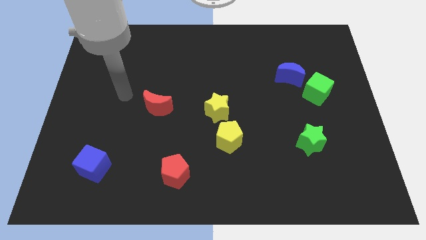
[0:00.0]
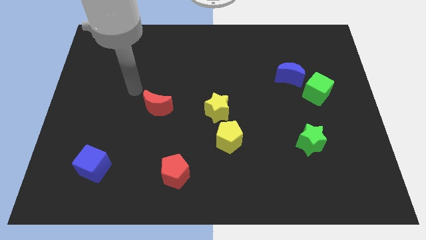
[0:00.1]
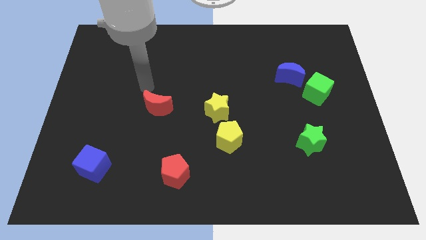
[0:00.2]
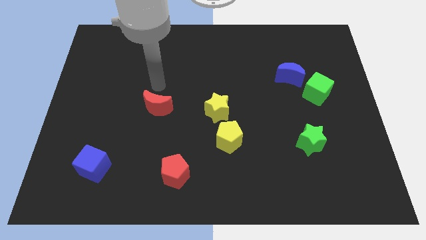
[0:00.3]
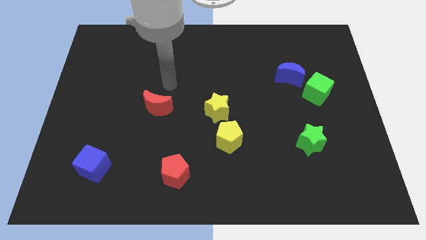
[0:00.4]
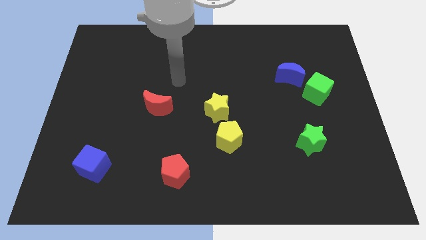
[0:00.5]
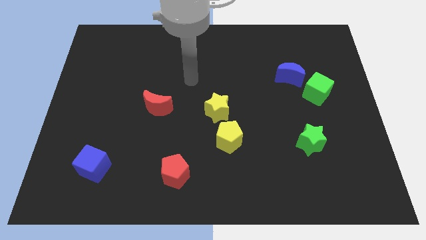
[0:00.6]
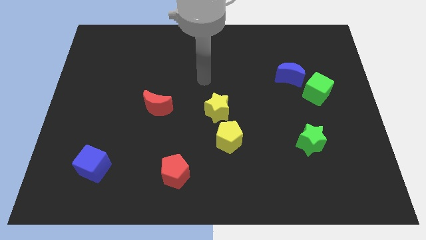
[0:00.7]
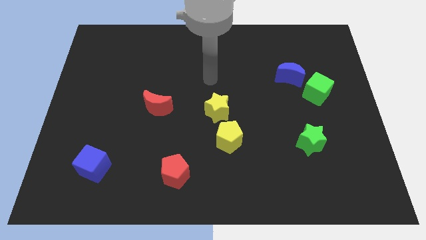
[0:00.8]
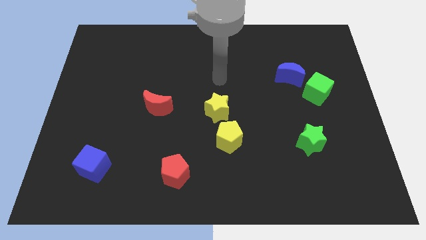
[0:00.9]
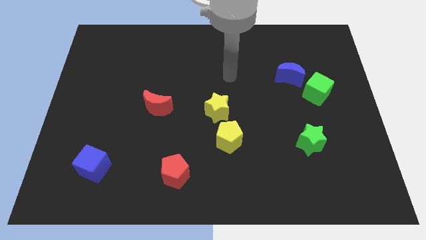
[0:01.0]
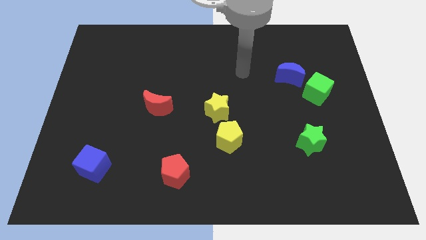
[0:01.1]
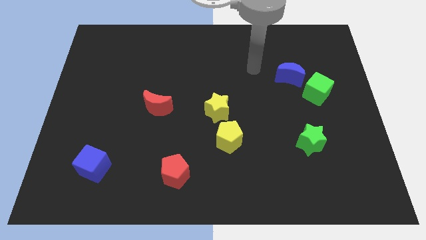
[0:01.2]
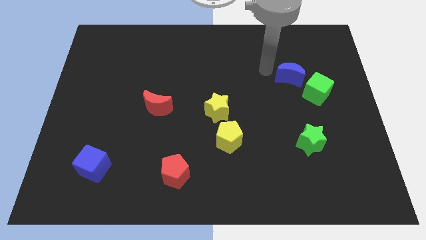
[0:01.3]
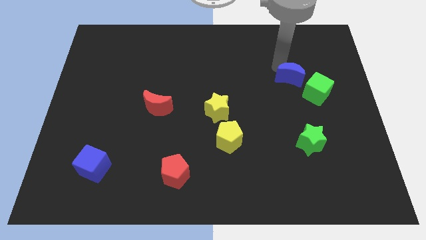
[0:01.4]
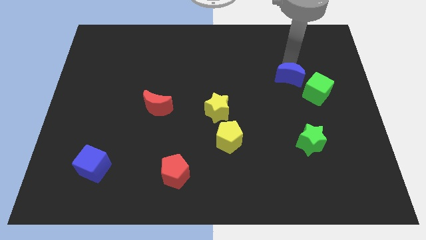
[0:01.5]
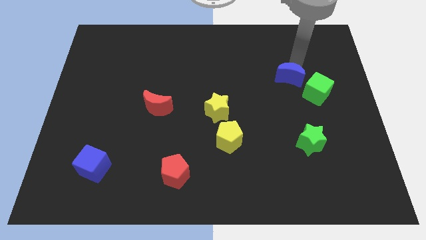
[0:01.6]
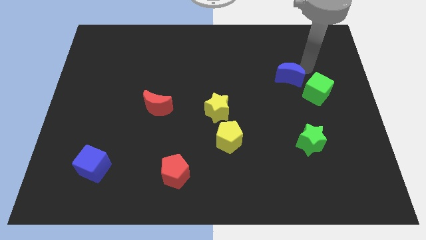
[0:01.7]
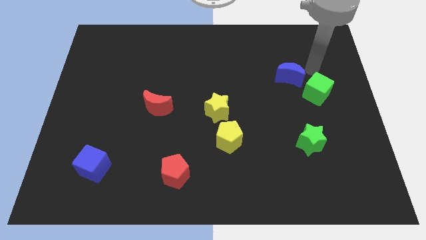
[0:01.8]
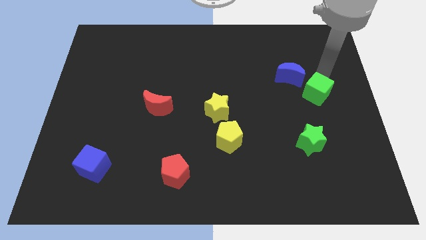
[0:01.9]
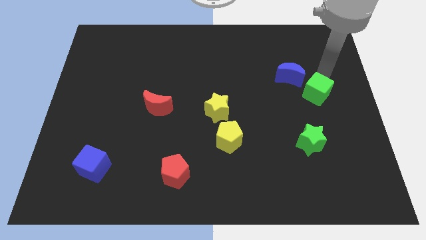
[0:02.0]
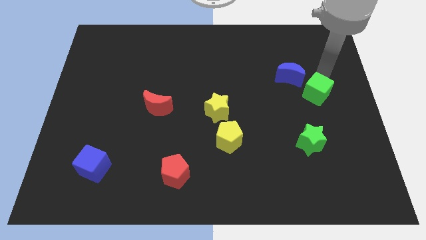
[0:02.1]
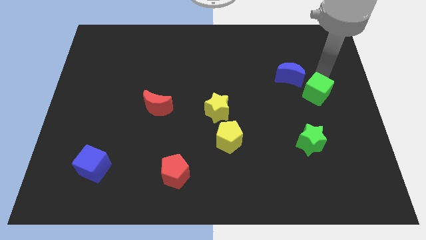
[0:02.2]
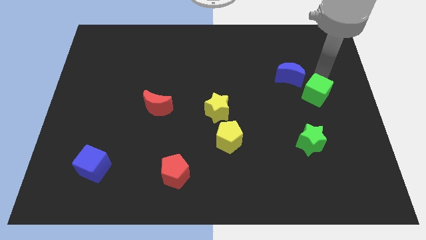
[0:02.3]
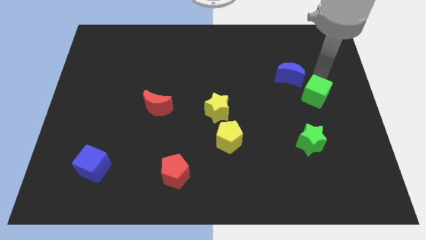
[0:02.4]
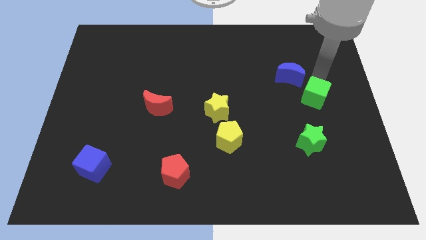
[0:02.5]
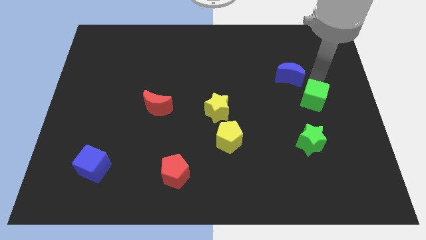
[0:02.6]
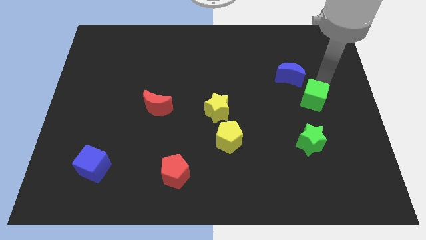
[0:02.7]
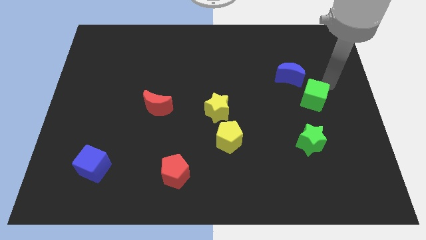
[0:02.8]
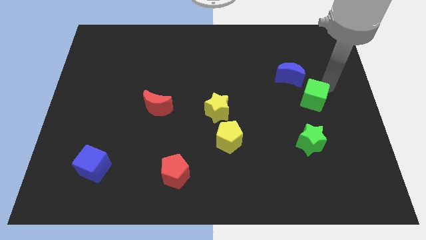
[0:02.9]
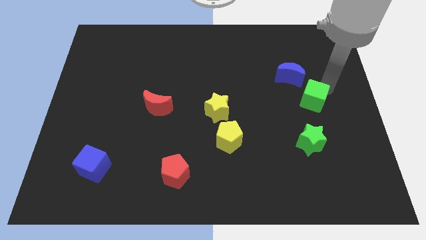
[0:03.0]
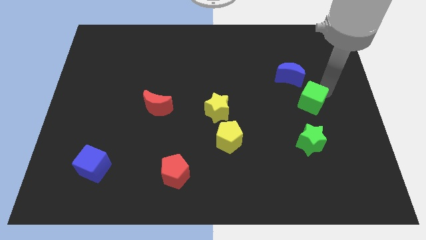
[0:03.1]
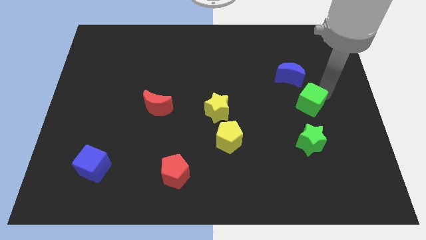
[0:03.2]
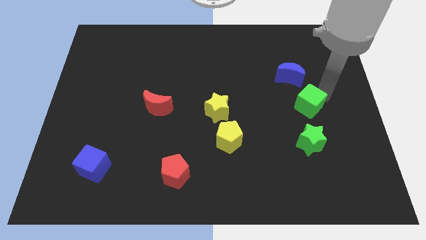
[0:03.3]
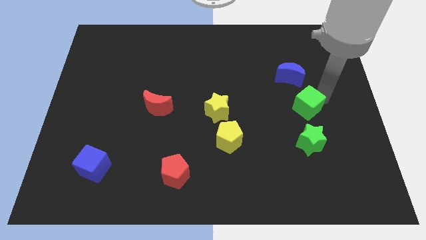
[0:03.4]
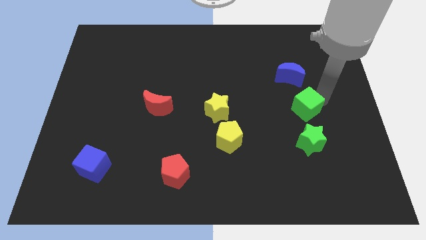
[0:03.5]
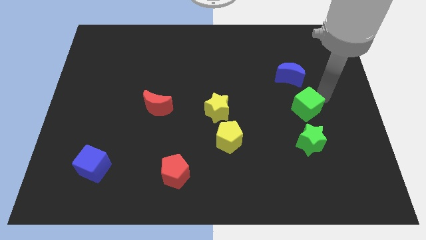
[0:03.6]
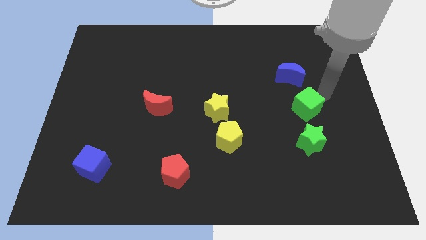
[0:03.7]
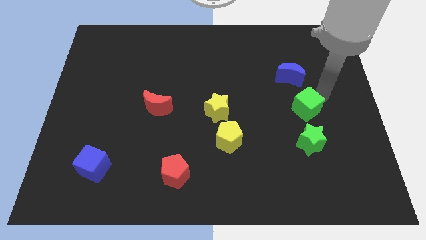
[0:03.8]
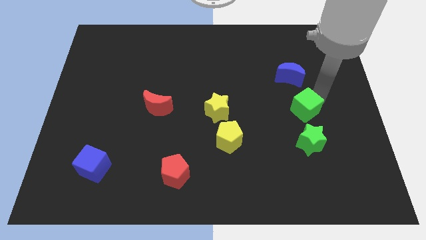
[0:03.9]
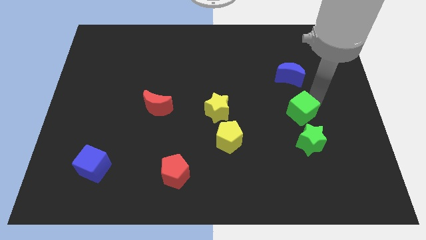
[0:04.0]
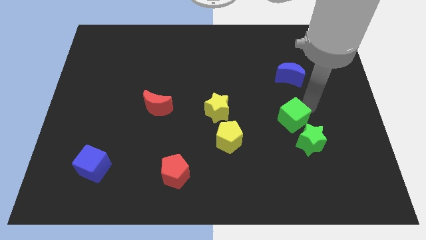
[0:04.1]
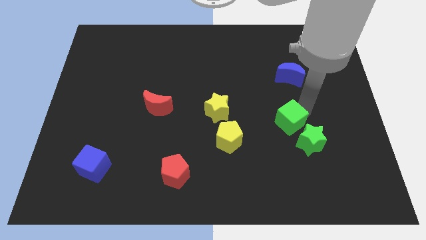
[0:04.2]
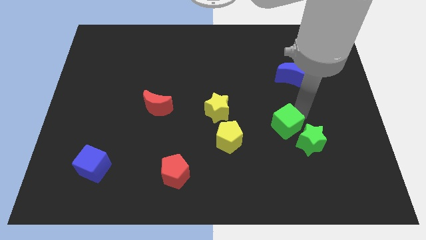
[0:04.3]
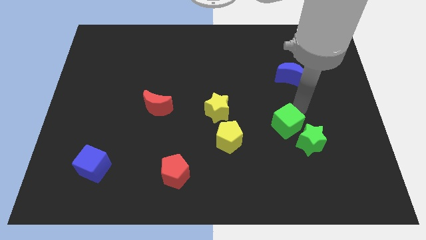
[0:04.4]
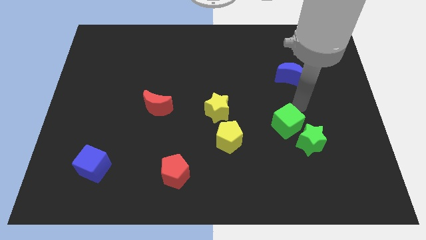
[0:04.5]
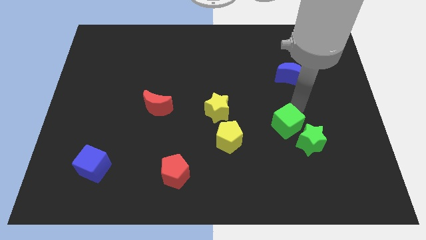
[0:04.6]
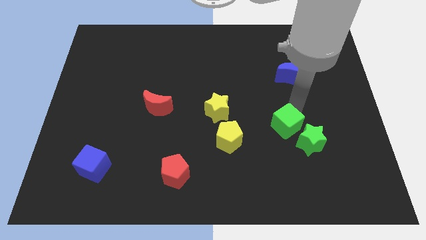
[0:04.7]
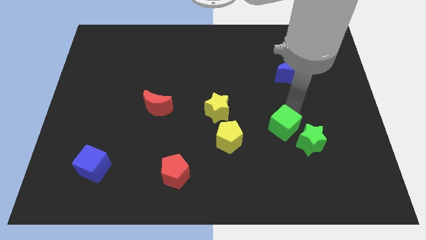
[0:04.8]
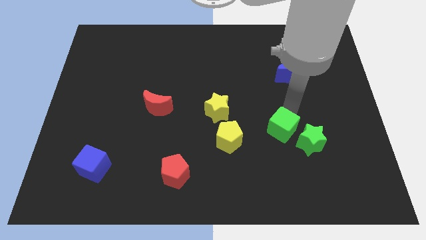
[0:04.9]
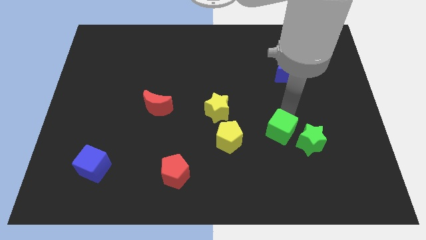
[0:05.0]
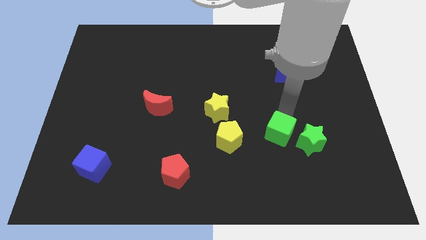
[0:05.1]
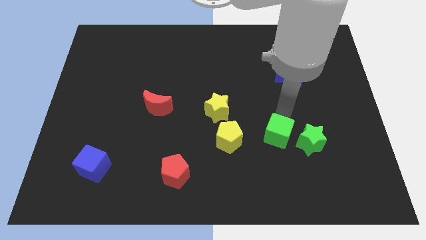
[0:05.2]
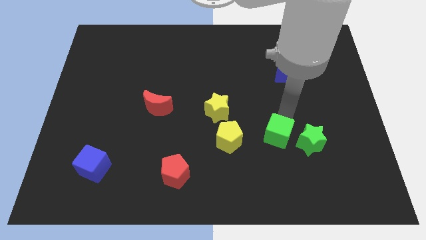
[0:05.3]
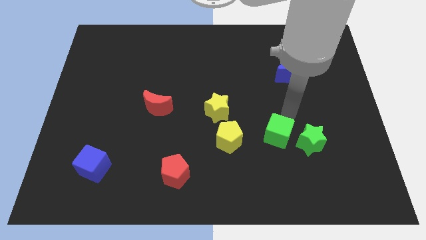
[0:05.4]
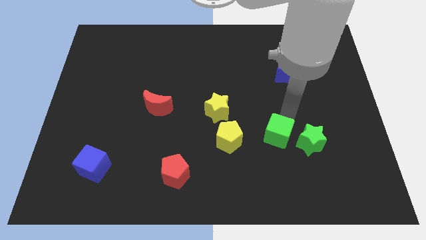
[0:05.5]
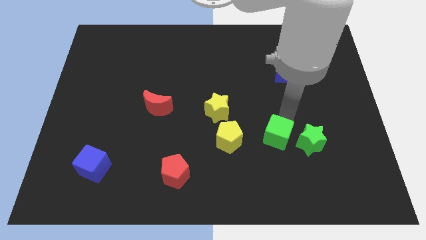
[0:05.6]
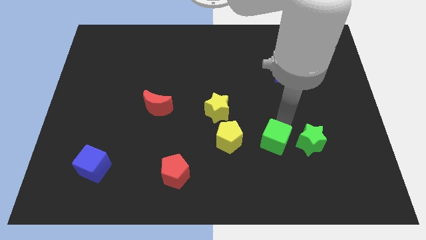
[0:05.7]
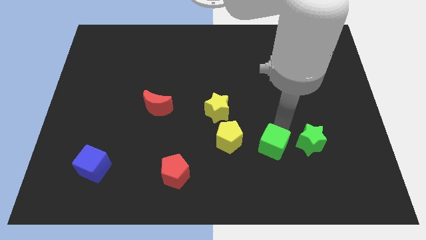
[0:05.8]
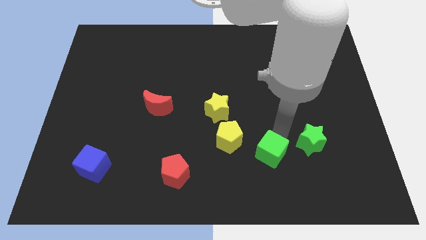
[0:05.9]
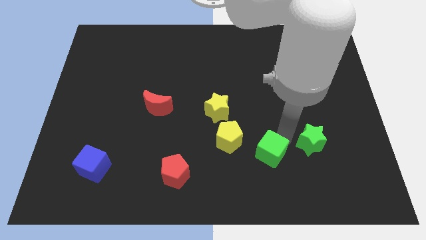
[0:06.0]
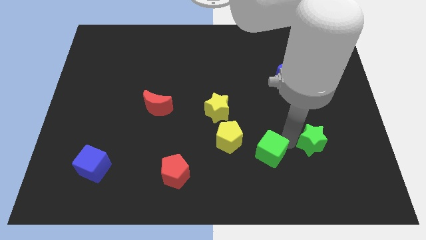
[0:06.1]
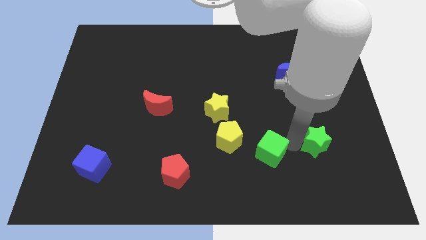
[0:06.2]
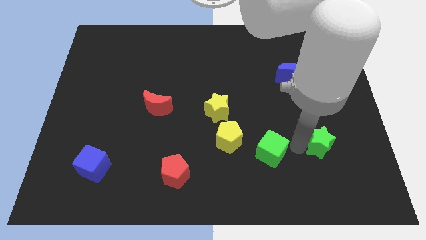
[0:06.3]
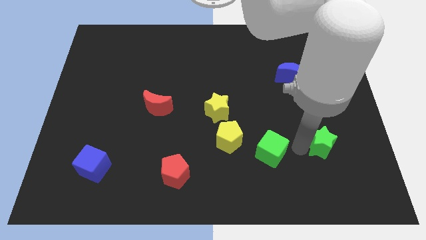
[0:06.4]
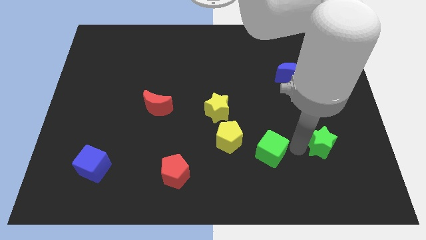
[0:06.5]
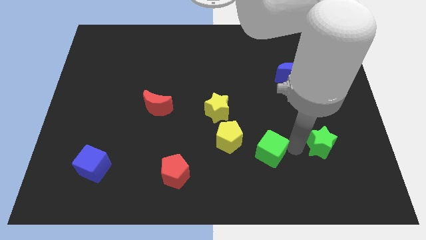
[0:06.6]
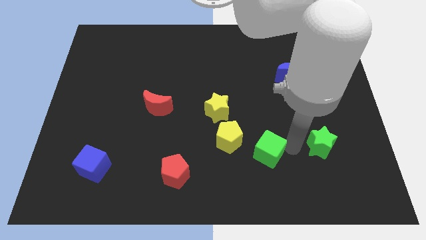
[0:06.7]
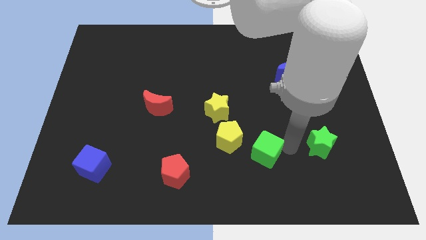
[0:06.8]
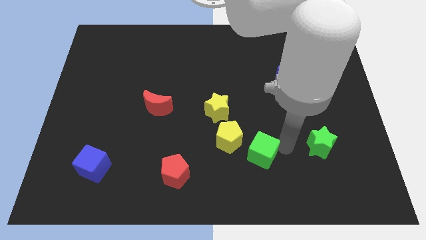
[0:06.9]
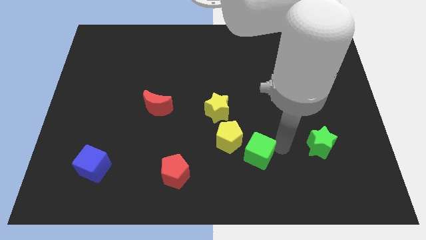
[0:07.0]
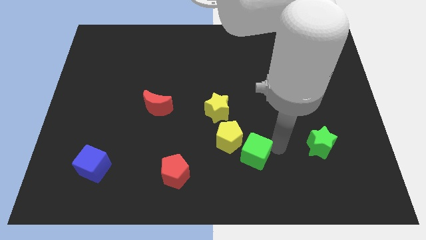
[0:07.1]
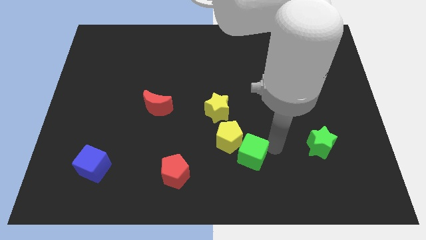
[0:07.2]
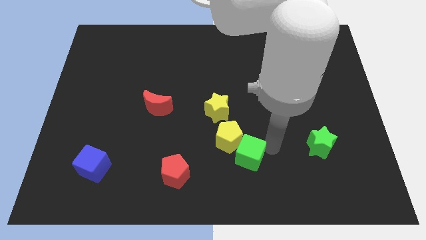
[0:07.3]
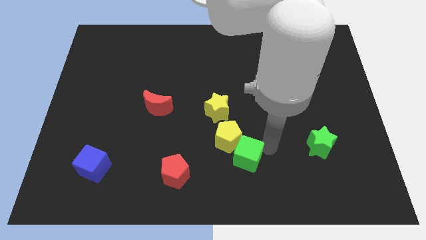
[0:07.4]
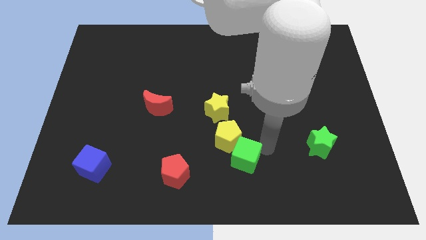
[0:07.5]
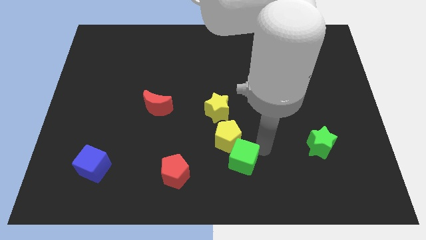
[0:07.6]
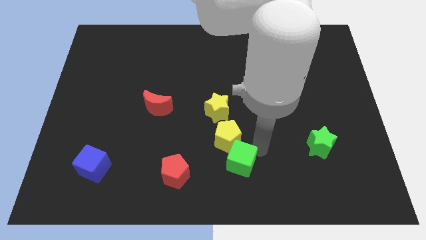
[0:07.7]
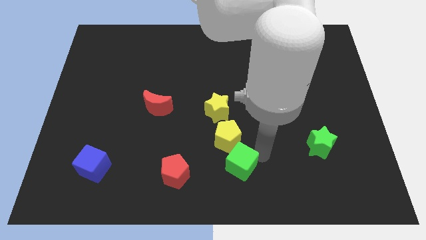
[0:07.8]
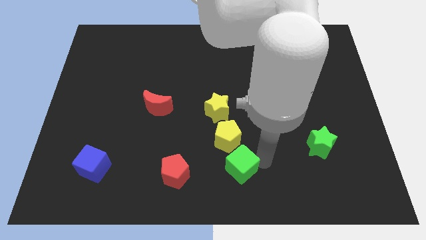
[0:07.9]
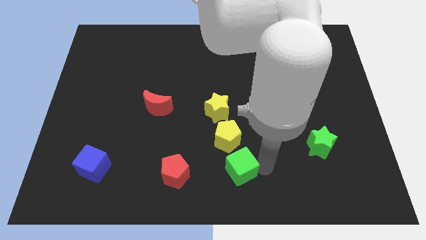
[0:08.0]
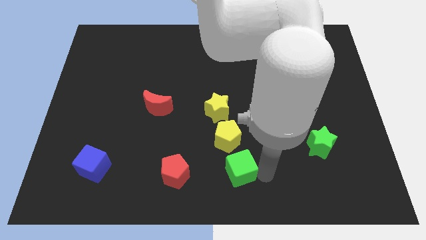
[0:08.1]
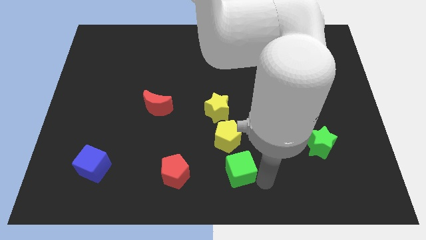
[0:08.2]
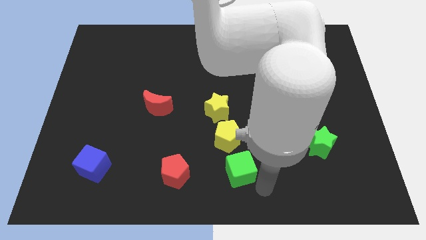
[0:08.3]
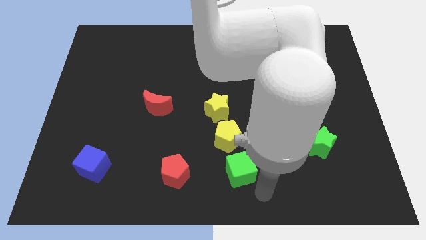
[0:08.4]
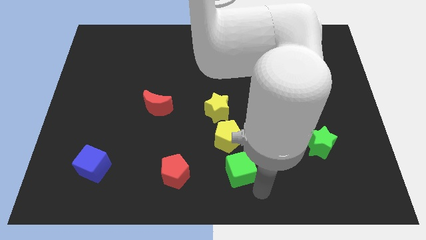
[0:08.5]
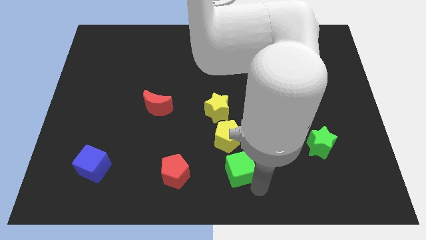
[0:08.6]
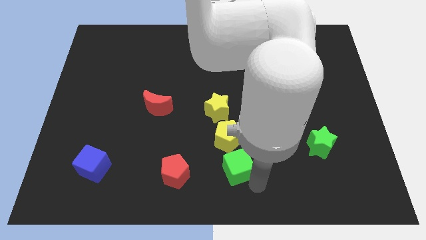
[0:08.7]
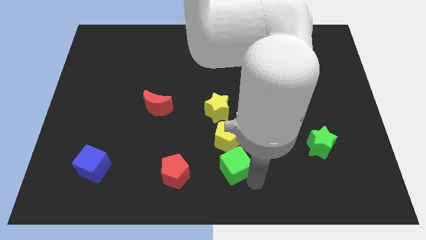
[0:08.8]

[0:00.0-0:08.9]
slide the green cube to the bottom side of the yellow star
